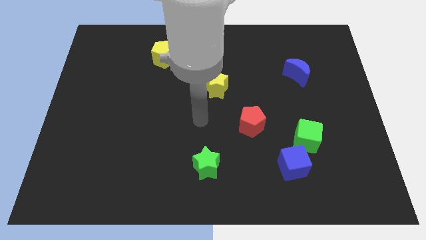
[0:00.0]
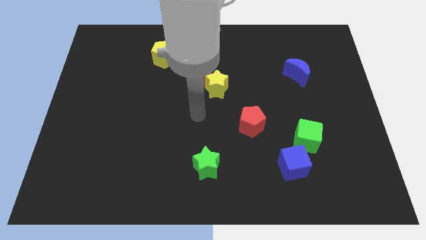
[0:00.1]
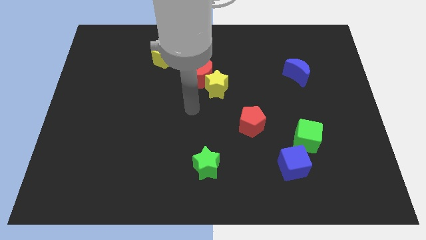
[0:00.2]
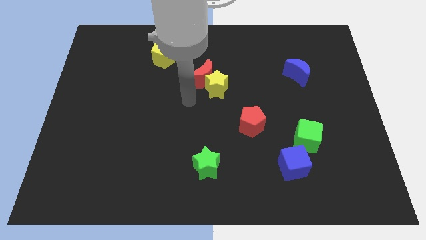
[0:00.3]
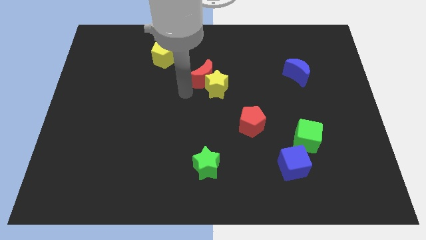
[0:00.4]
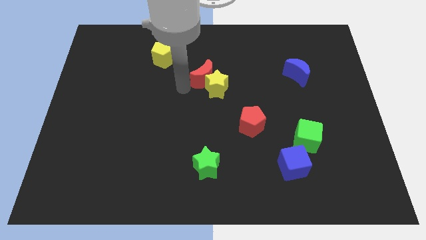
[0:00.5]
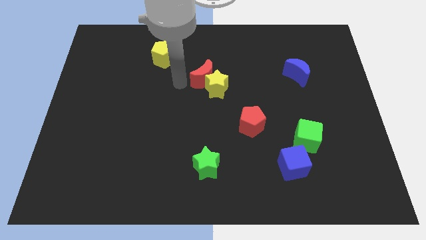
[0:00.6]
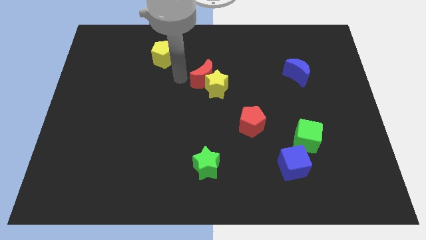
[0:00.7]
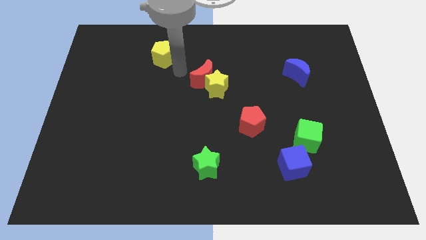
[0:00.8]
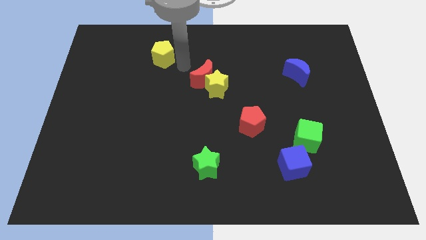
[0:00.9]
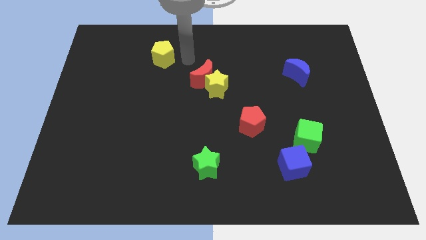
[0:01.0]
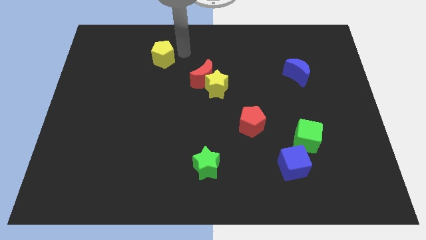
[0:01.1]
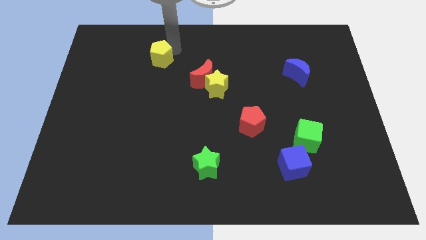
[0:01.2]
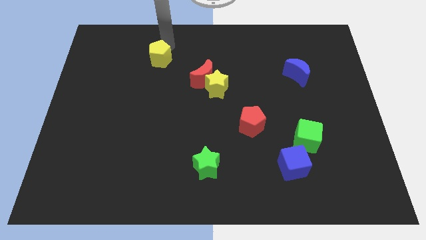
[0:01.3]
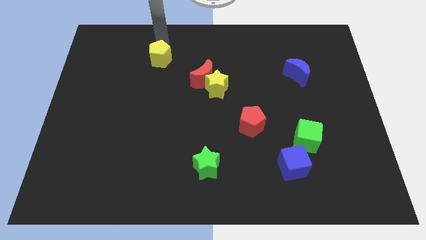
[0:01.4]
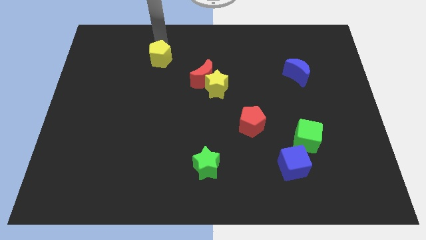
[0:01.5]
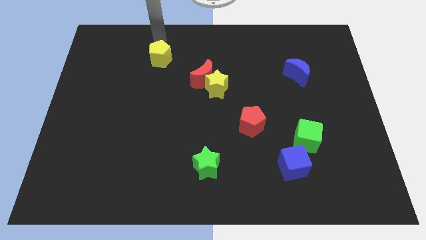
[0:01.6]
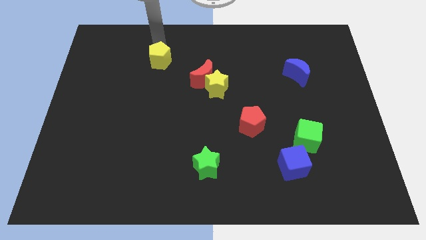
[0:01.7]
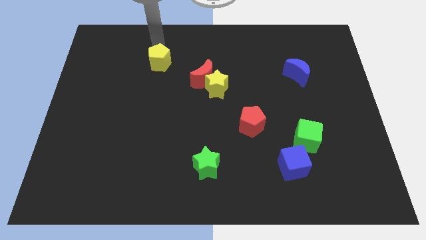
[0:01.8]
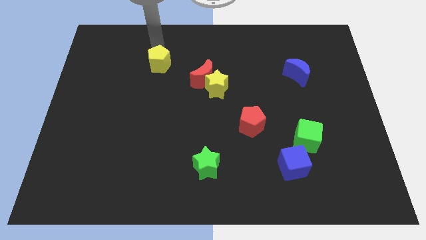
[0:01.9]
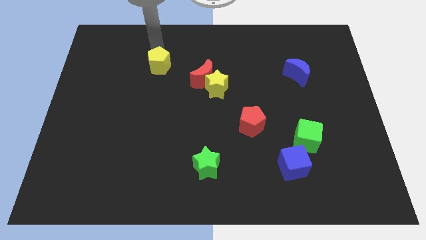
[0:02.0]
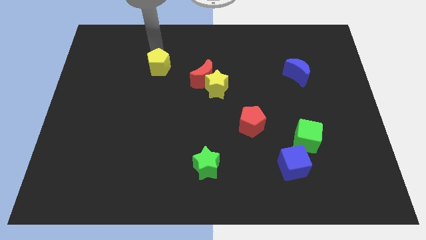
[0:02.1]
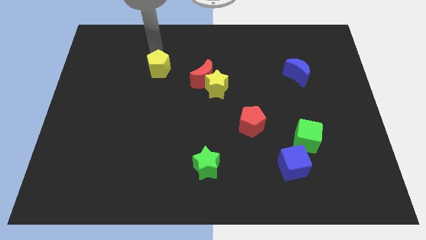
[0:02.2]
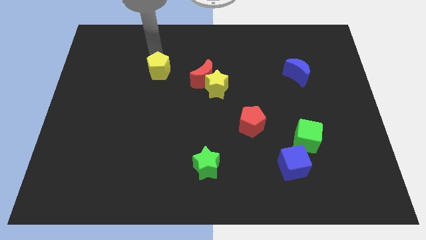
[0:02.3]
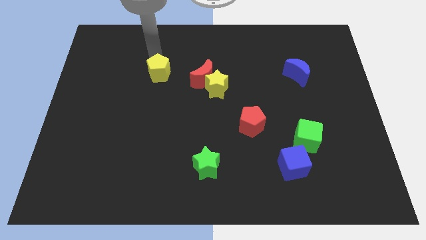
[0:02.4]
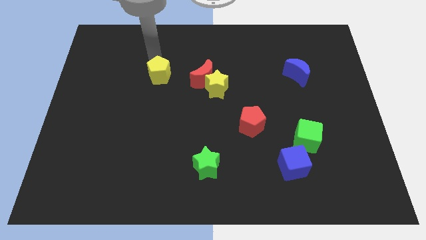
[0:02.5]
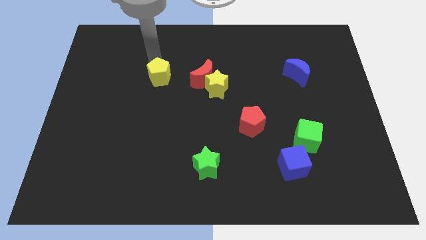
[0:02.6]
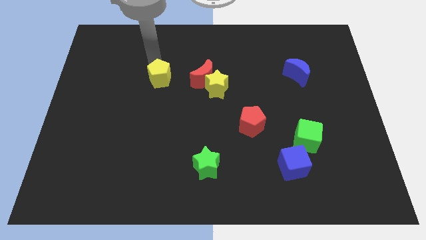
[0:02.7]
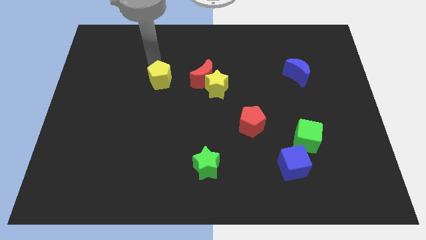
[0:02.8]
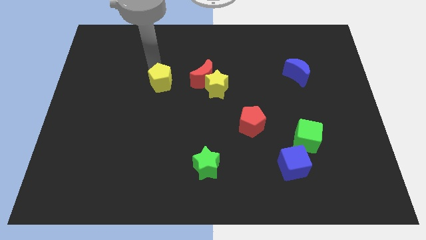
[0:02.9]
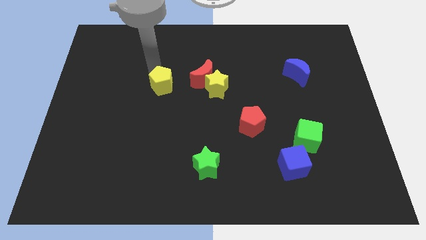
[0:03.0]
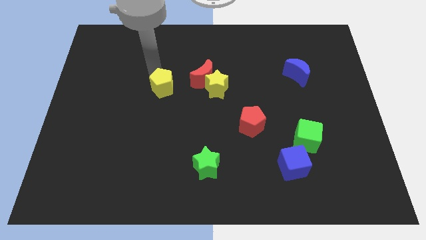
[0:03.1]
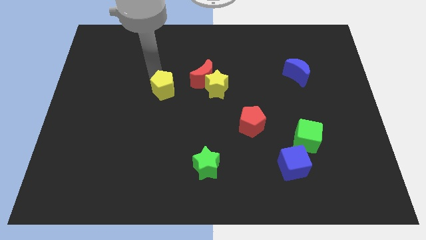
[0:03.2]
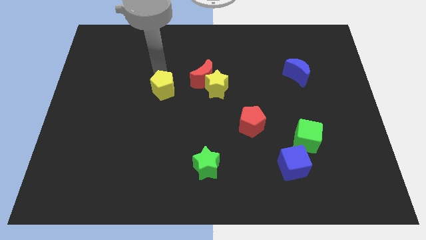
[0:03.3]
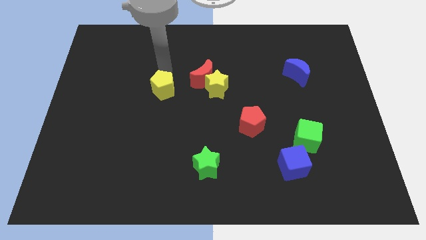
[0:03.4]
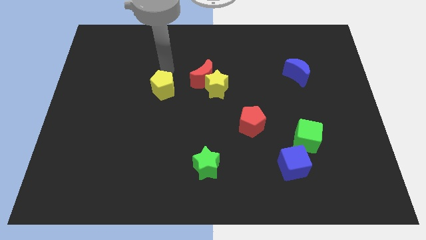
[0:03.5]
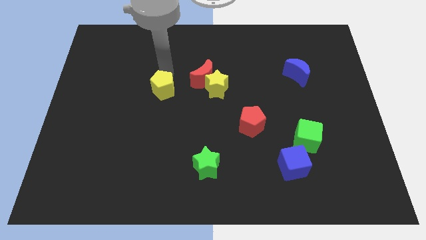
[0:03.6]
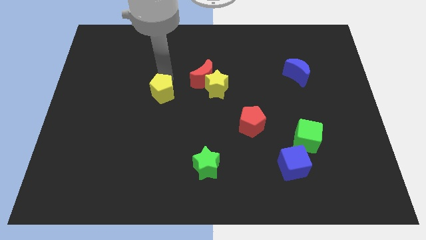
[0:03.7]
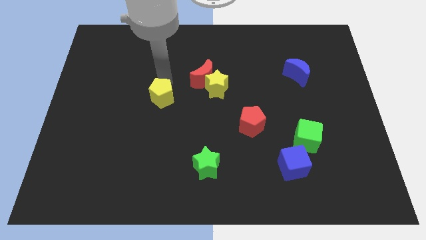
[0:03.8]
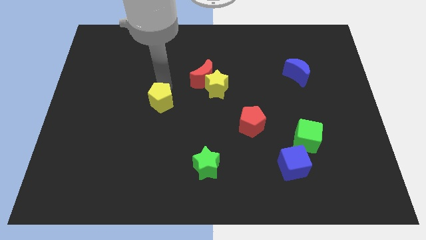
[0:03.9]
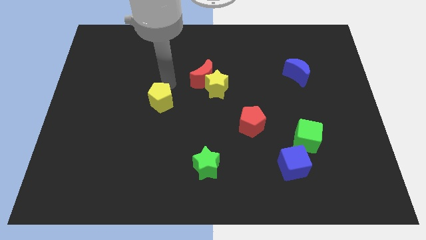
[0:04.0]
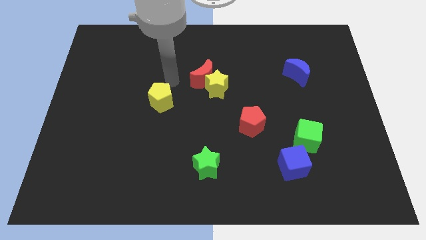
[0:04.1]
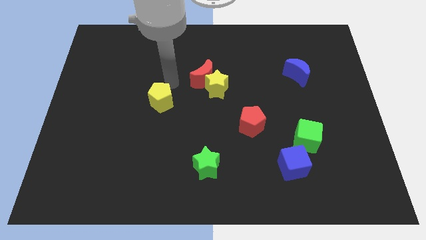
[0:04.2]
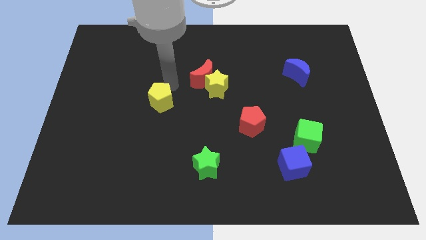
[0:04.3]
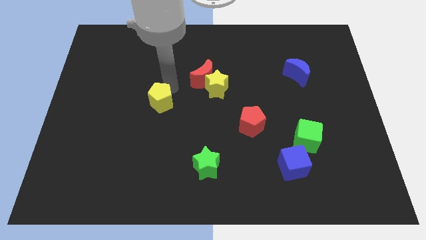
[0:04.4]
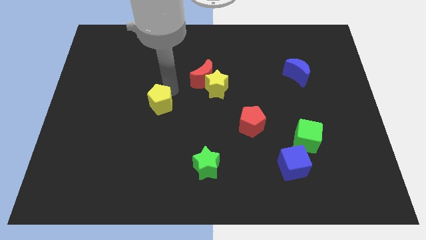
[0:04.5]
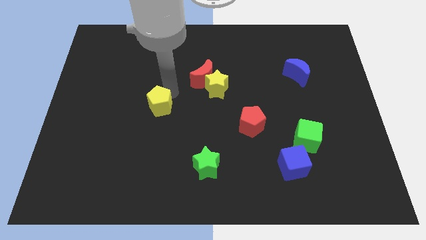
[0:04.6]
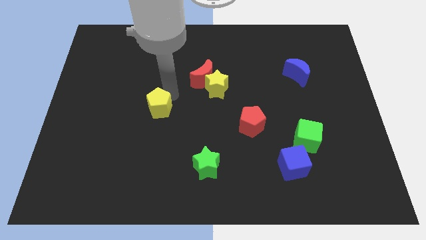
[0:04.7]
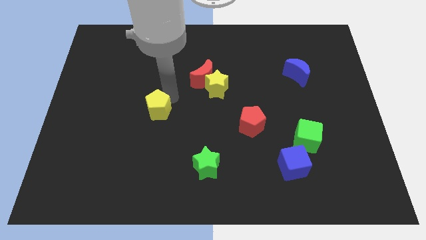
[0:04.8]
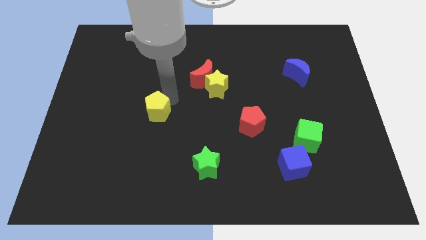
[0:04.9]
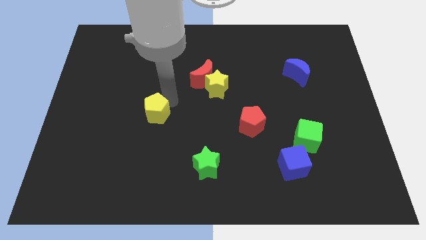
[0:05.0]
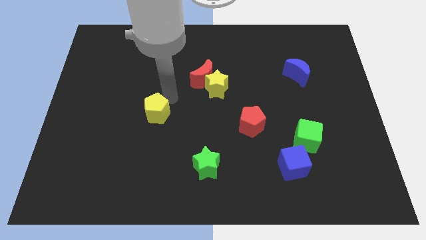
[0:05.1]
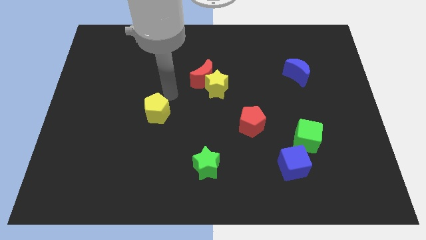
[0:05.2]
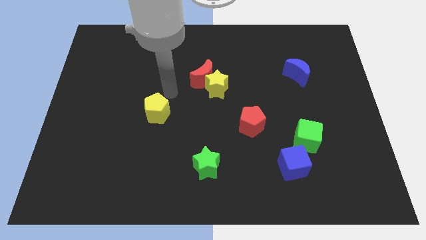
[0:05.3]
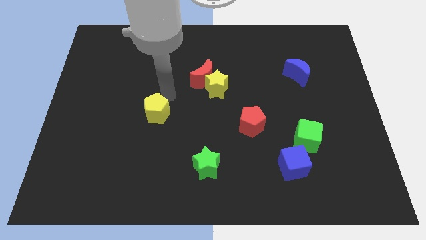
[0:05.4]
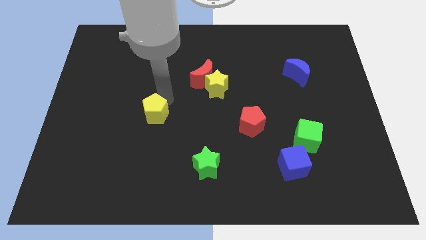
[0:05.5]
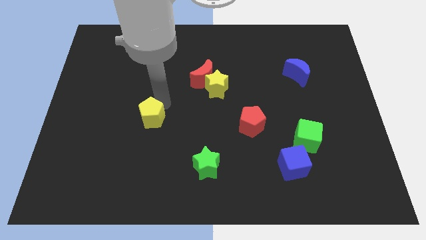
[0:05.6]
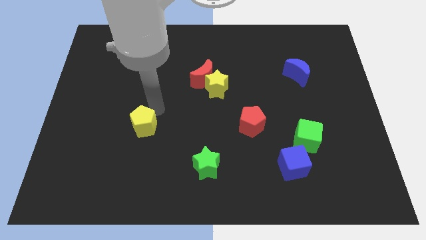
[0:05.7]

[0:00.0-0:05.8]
move the yellow pentagon down

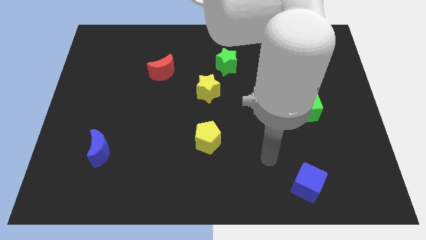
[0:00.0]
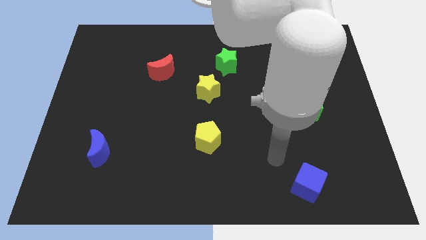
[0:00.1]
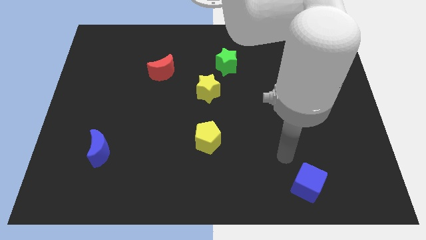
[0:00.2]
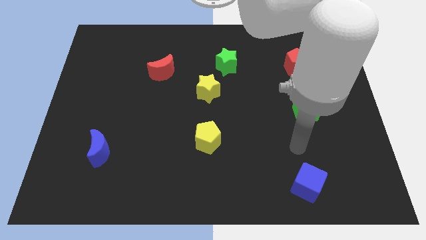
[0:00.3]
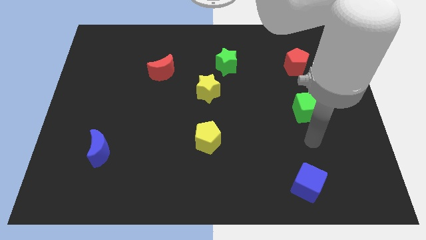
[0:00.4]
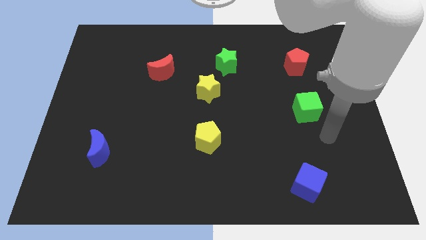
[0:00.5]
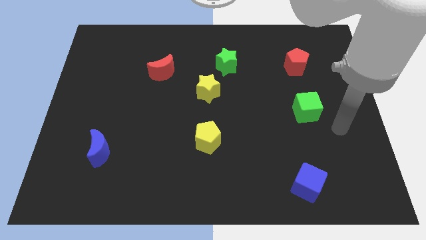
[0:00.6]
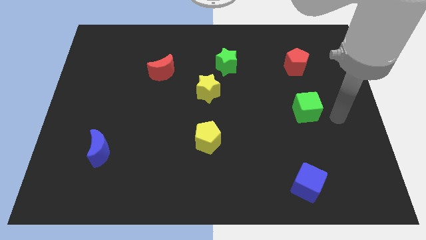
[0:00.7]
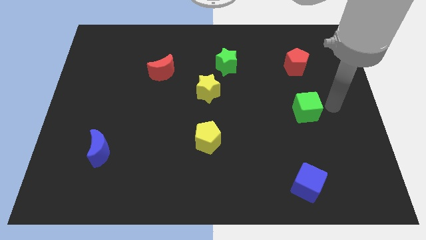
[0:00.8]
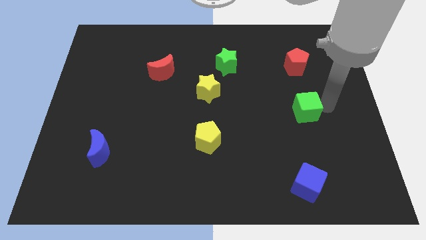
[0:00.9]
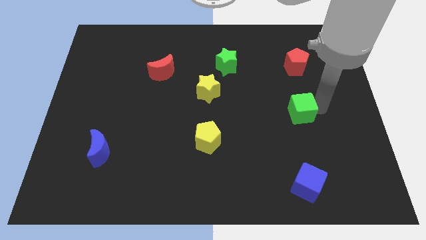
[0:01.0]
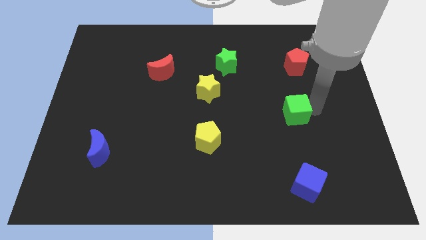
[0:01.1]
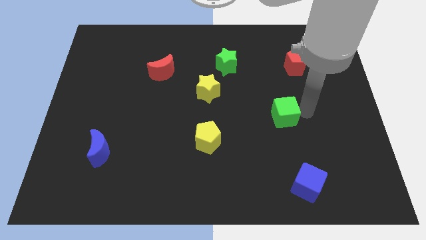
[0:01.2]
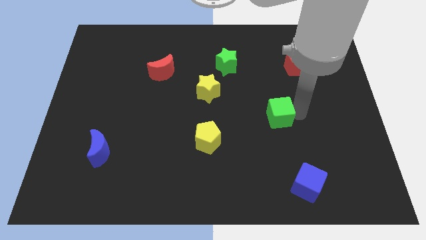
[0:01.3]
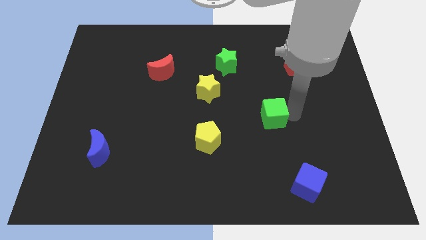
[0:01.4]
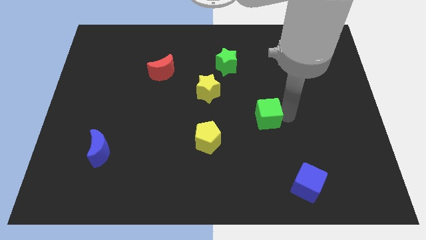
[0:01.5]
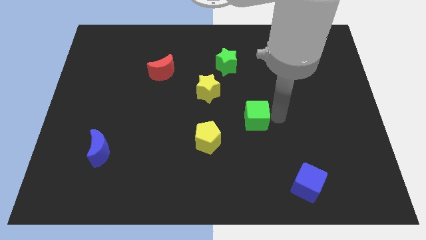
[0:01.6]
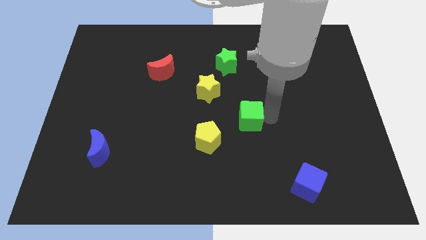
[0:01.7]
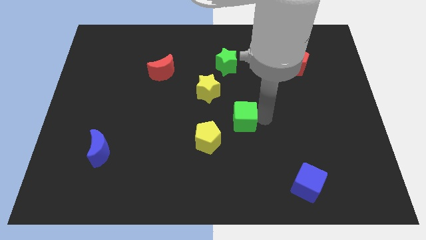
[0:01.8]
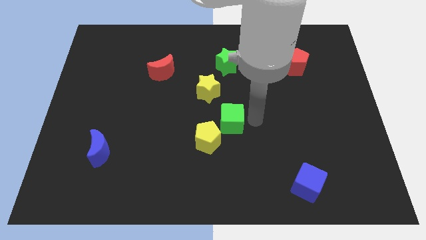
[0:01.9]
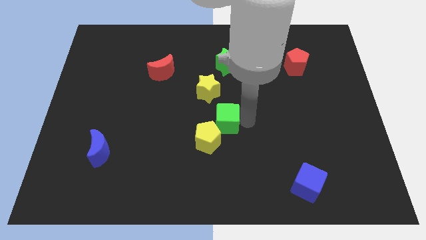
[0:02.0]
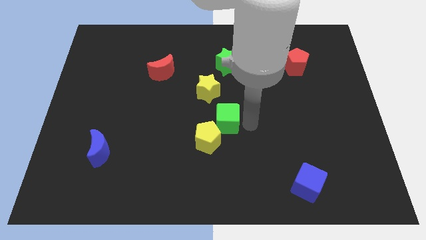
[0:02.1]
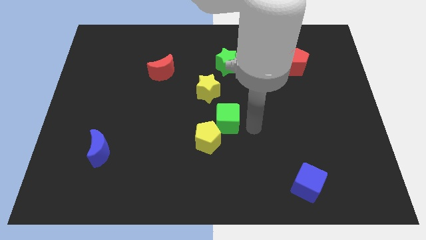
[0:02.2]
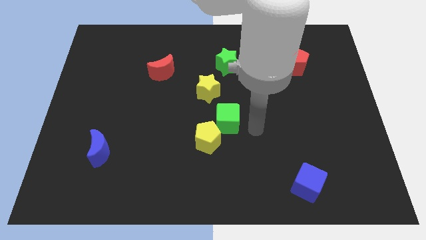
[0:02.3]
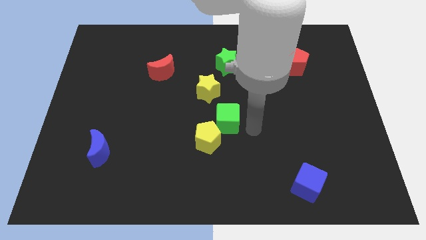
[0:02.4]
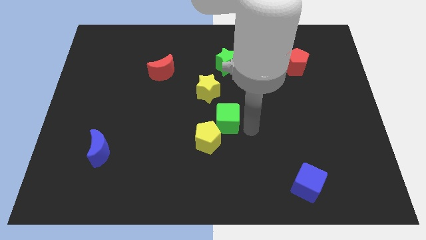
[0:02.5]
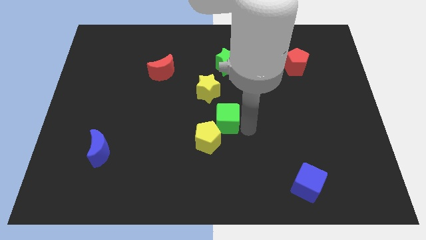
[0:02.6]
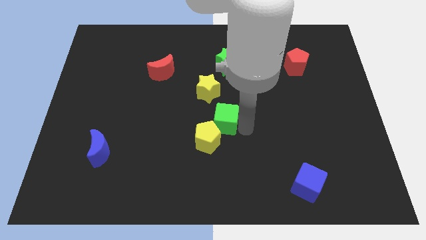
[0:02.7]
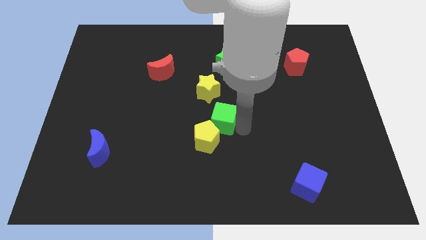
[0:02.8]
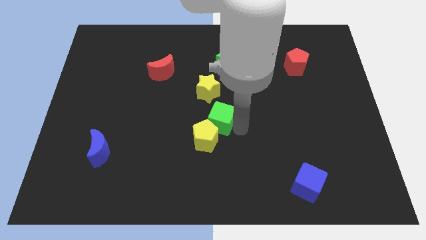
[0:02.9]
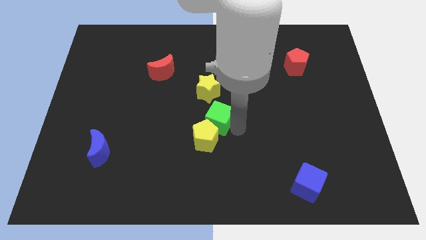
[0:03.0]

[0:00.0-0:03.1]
move the green cube to the left
